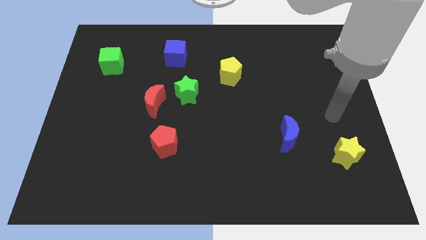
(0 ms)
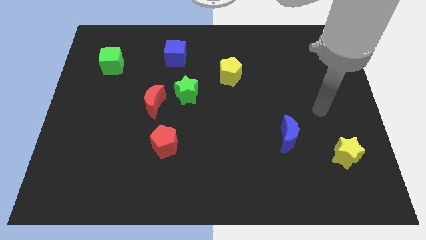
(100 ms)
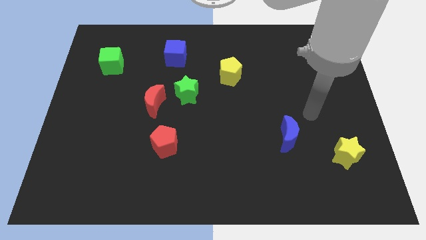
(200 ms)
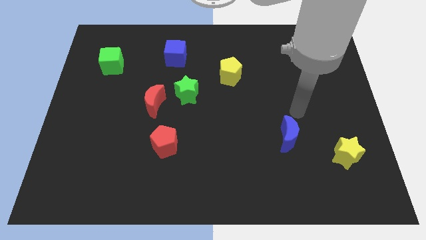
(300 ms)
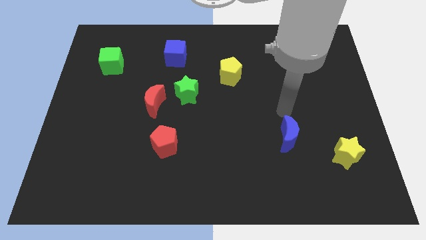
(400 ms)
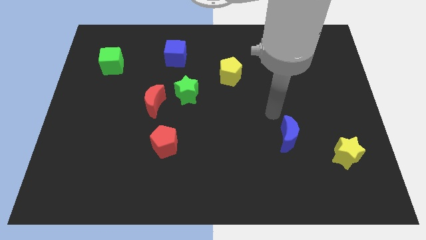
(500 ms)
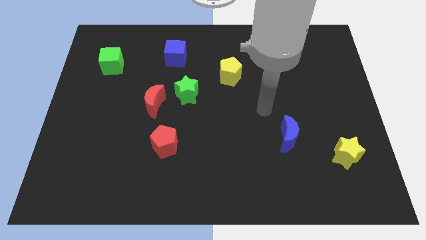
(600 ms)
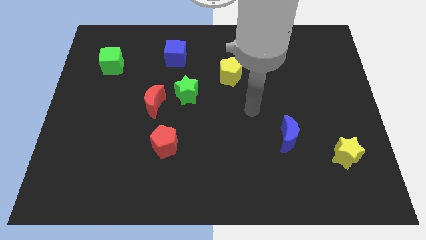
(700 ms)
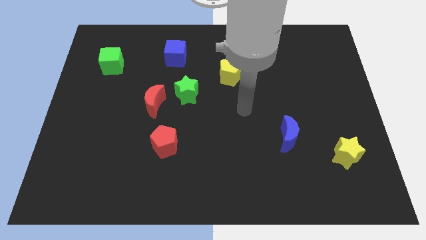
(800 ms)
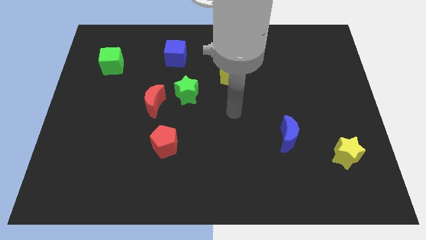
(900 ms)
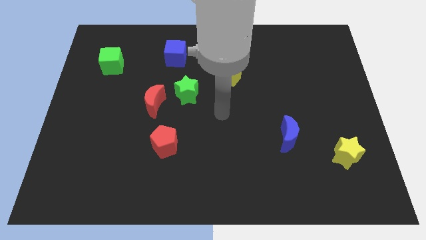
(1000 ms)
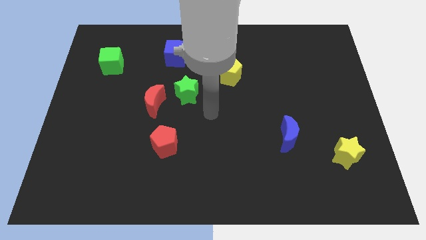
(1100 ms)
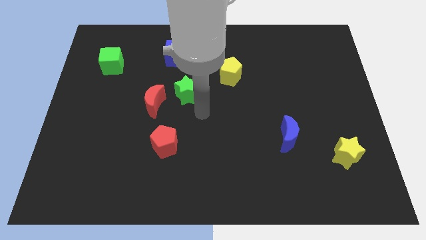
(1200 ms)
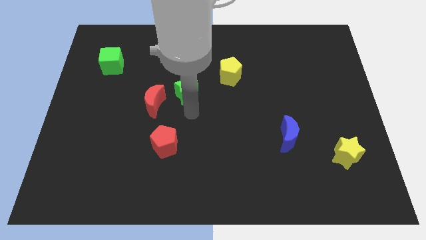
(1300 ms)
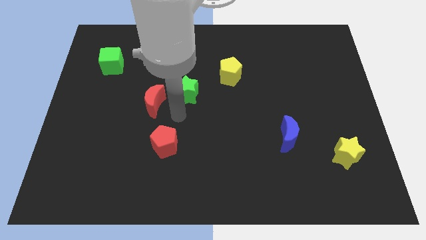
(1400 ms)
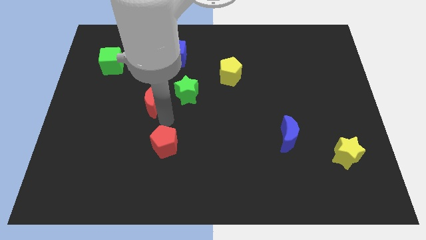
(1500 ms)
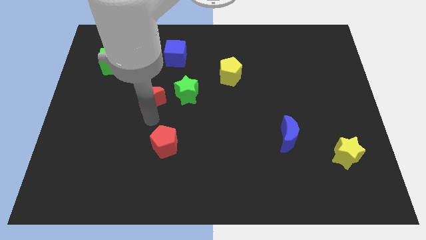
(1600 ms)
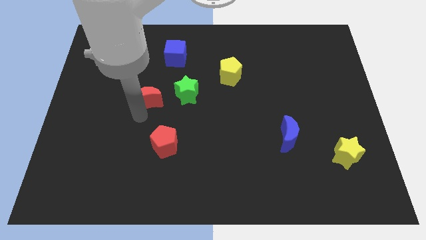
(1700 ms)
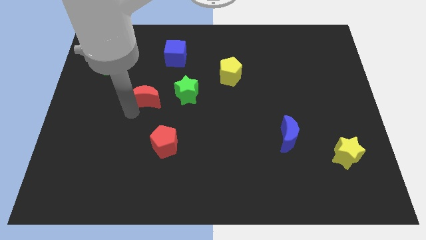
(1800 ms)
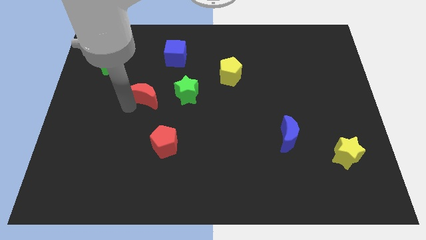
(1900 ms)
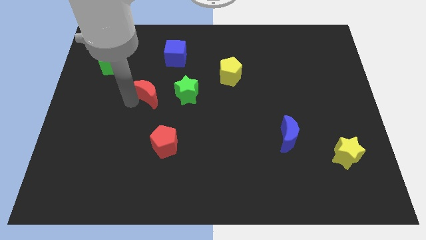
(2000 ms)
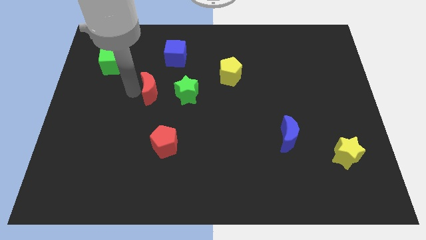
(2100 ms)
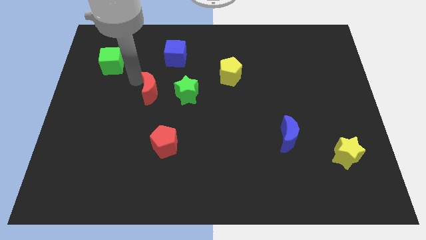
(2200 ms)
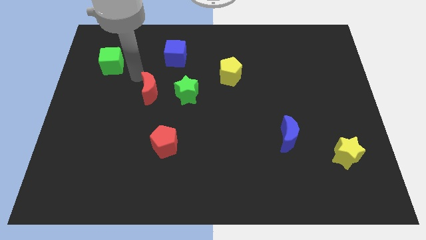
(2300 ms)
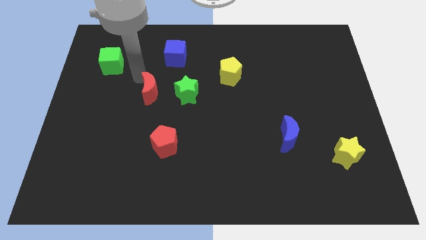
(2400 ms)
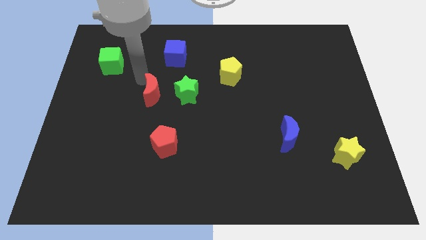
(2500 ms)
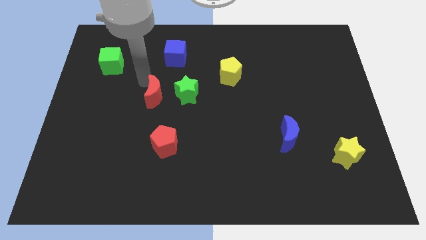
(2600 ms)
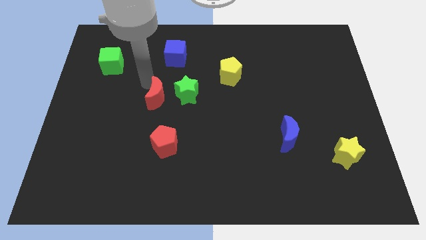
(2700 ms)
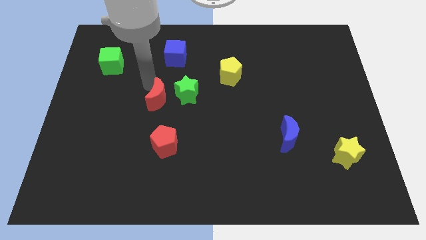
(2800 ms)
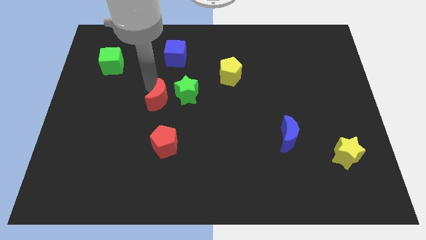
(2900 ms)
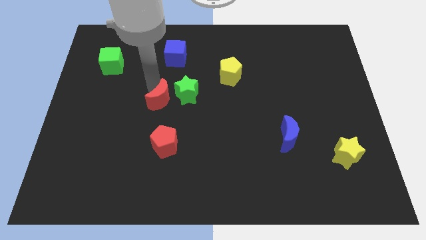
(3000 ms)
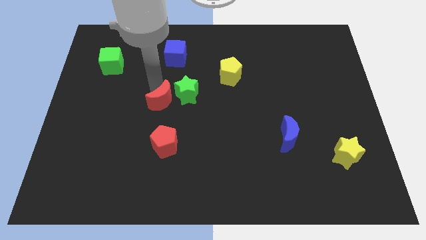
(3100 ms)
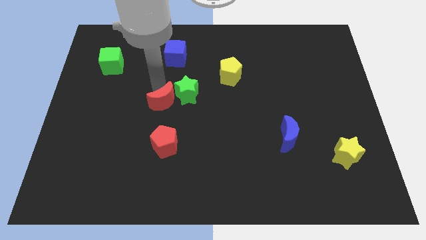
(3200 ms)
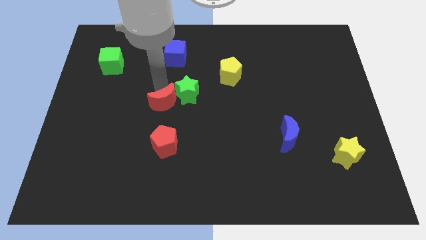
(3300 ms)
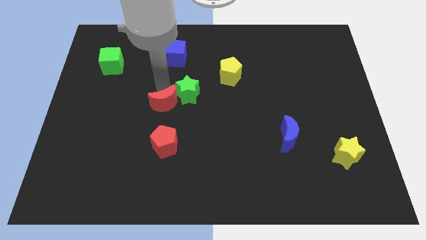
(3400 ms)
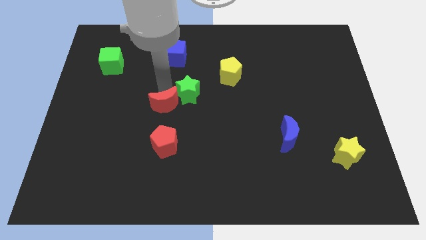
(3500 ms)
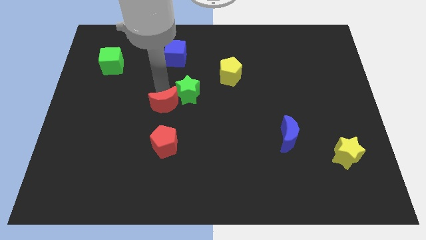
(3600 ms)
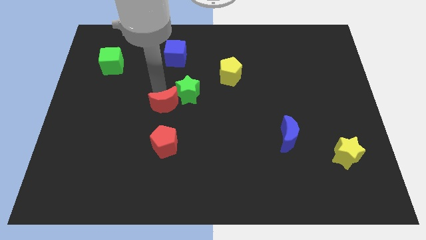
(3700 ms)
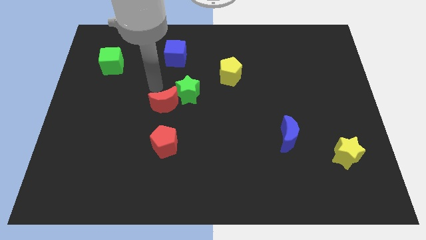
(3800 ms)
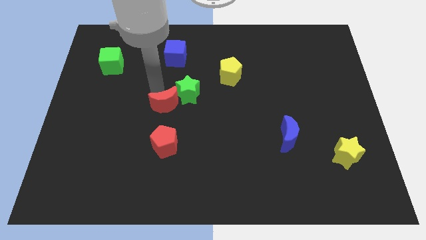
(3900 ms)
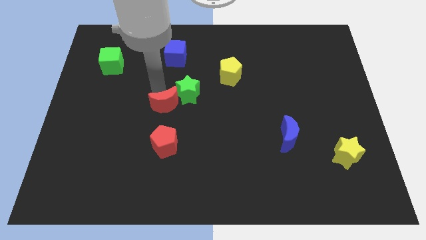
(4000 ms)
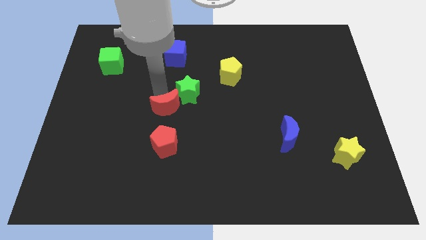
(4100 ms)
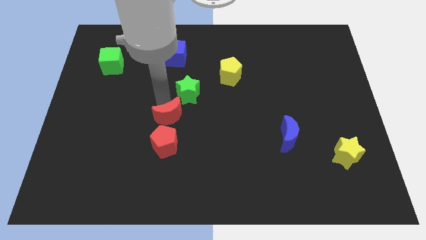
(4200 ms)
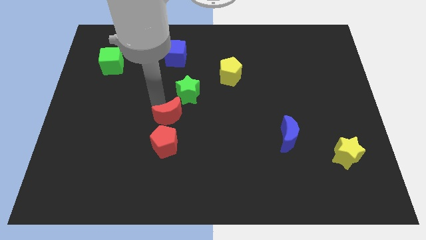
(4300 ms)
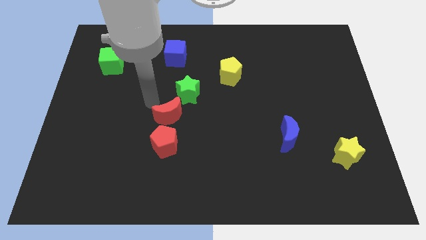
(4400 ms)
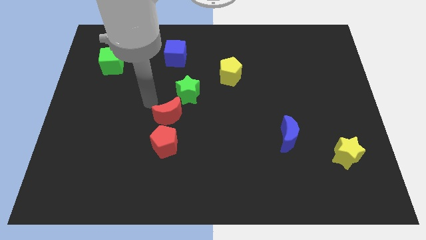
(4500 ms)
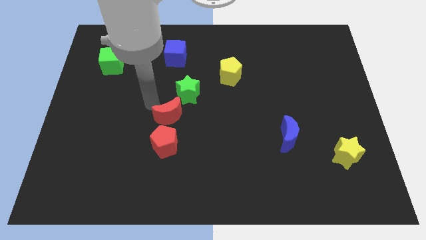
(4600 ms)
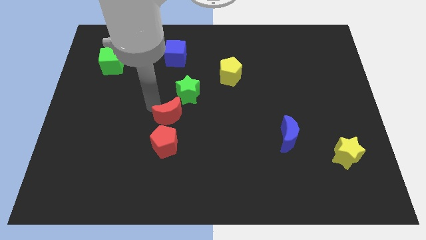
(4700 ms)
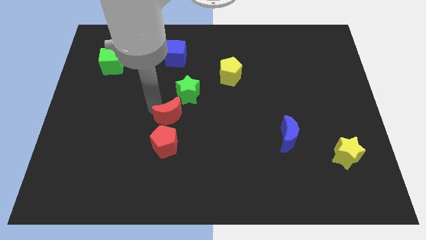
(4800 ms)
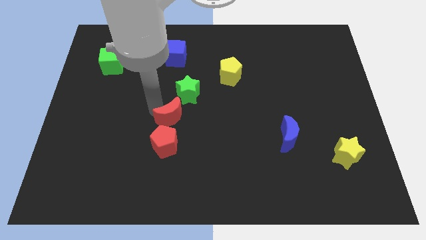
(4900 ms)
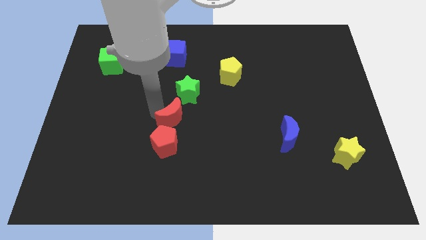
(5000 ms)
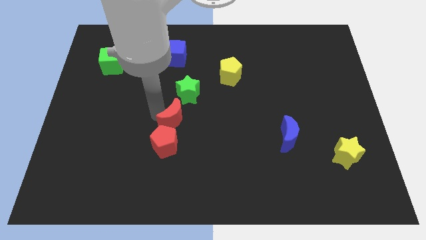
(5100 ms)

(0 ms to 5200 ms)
slightly move the red moon down and right

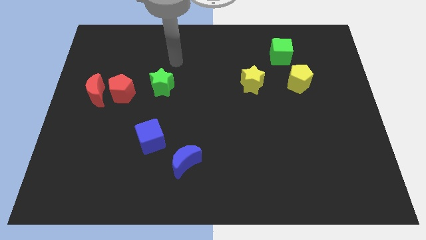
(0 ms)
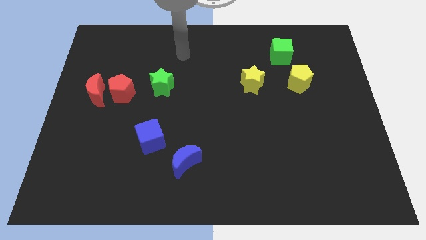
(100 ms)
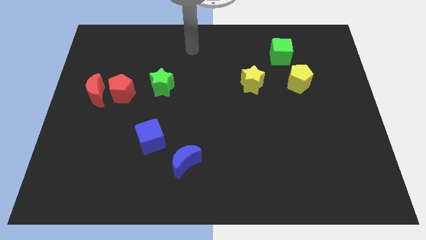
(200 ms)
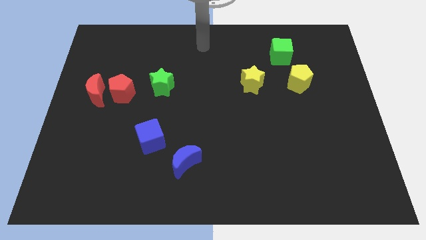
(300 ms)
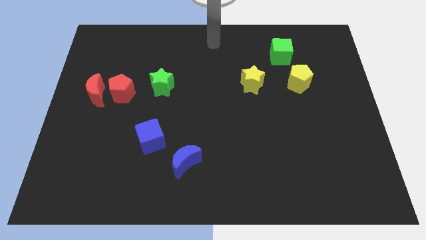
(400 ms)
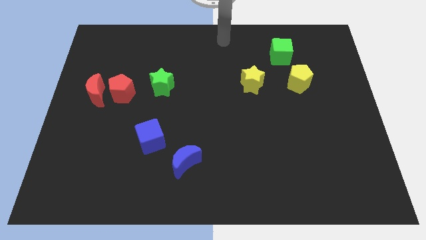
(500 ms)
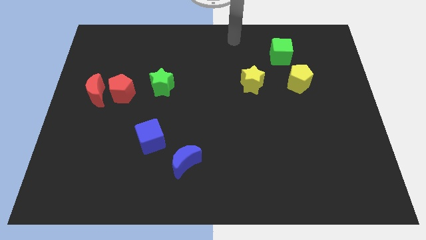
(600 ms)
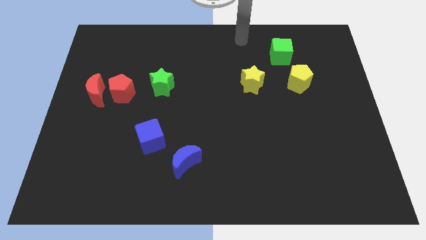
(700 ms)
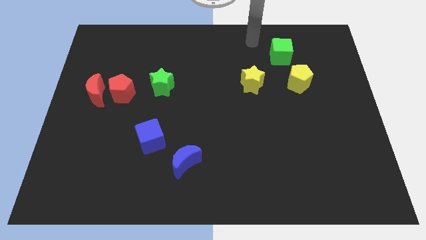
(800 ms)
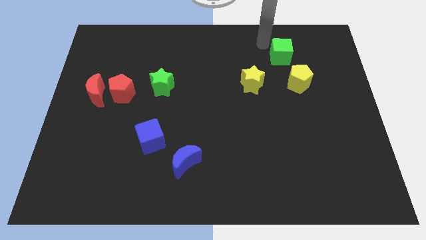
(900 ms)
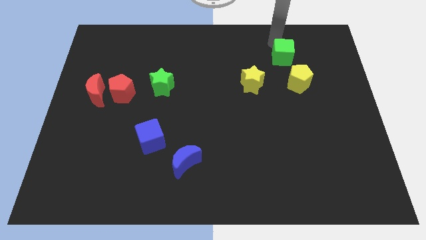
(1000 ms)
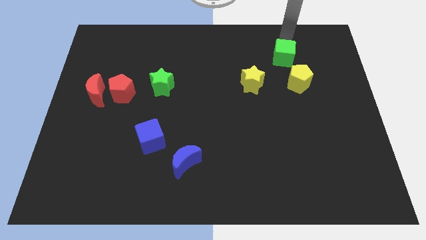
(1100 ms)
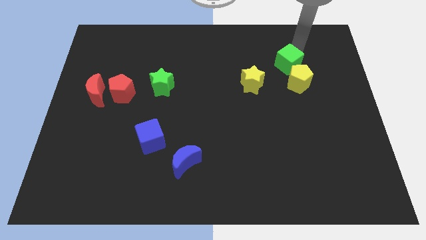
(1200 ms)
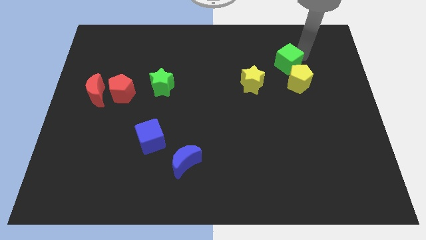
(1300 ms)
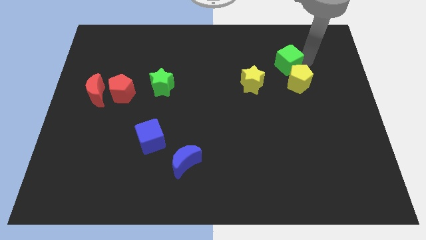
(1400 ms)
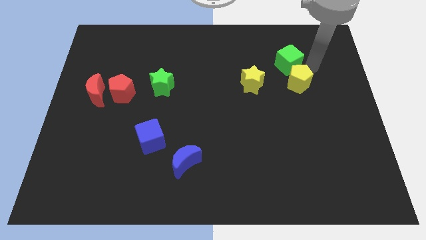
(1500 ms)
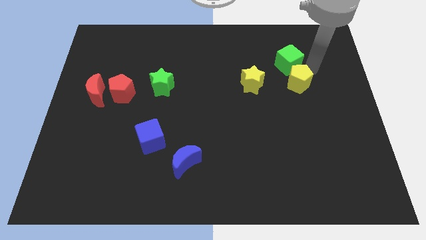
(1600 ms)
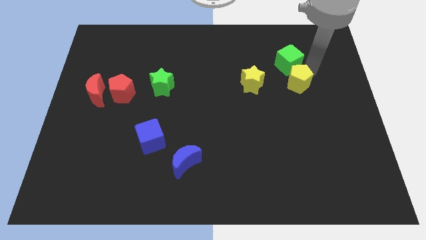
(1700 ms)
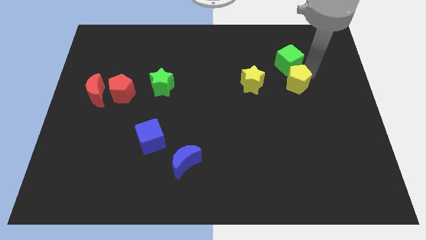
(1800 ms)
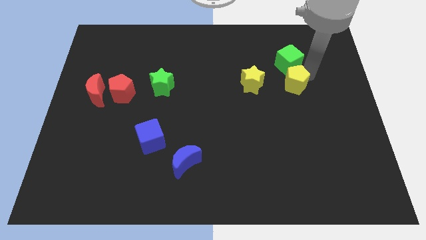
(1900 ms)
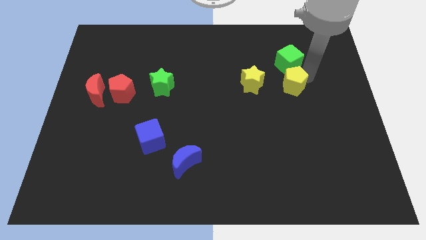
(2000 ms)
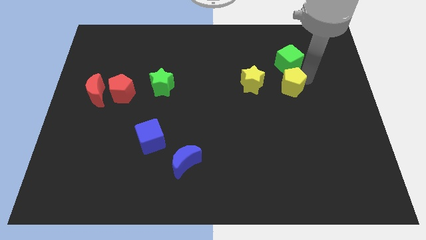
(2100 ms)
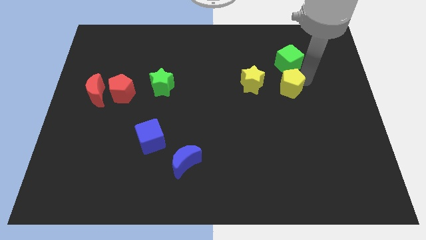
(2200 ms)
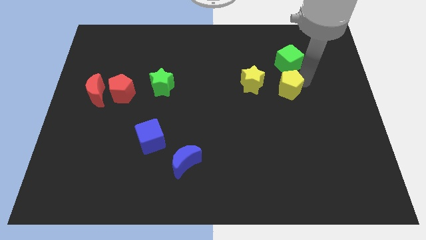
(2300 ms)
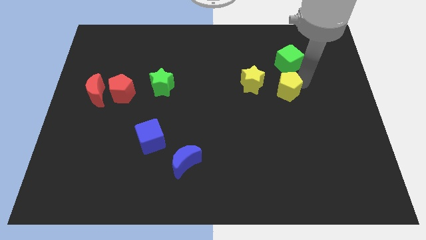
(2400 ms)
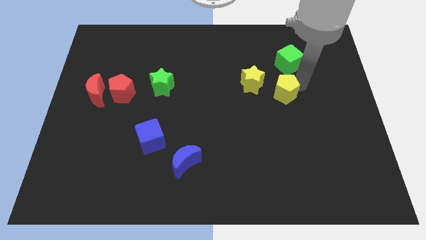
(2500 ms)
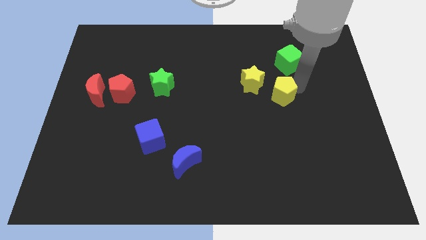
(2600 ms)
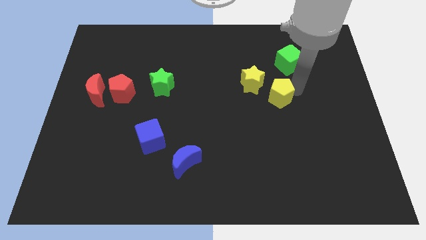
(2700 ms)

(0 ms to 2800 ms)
push the yellow pentagon down and to the left slightly

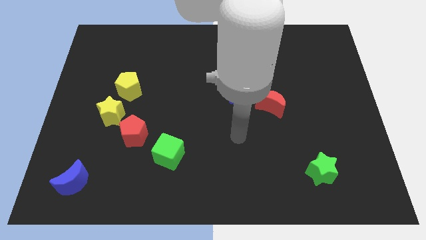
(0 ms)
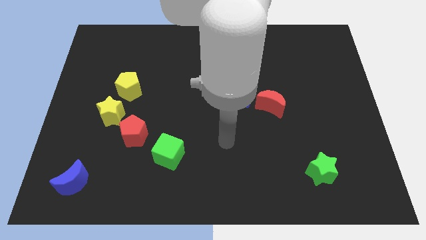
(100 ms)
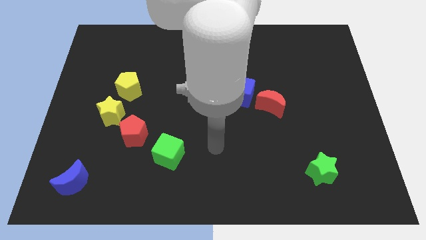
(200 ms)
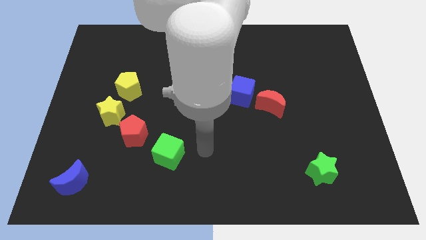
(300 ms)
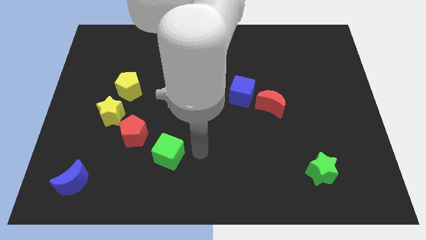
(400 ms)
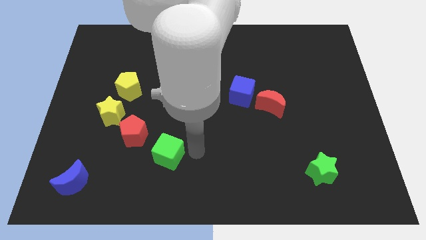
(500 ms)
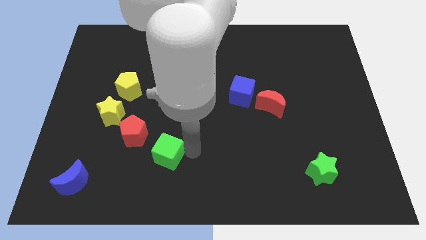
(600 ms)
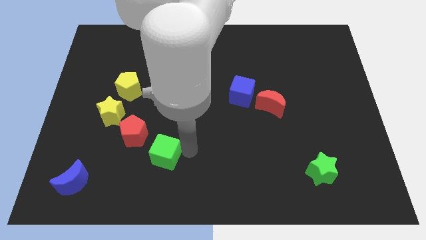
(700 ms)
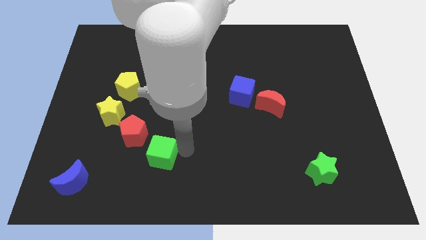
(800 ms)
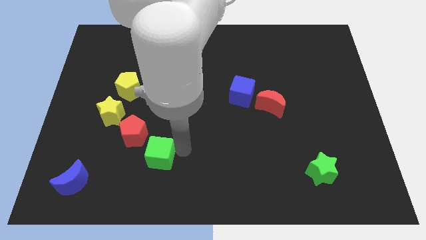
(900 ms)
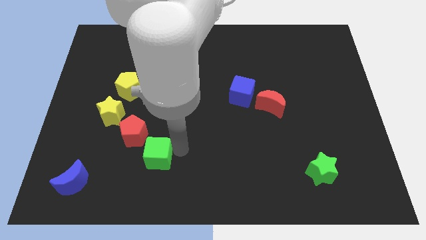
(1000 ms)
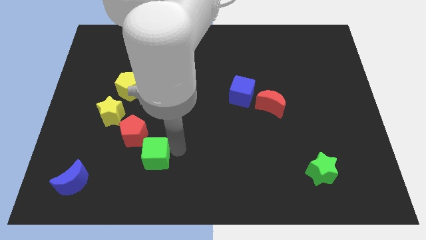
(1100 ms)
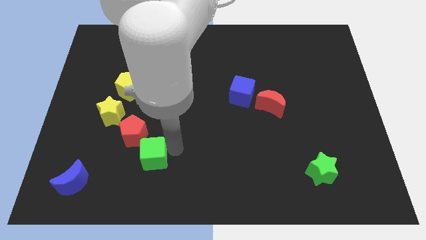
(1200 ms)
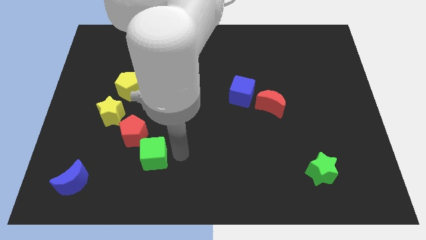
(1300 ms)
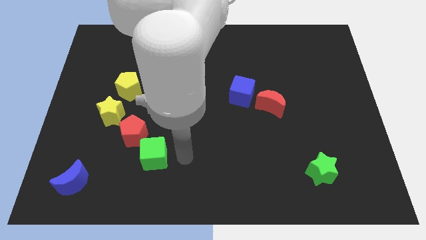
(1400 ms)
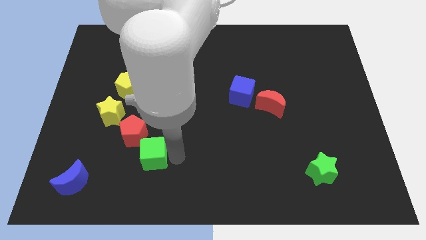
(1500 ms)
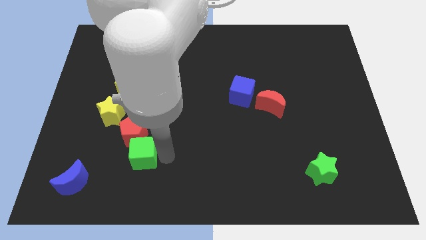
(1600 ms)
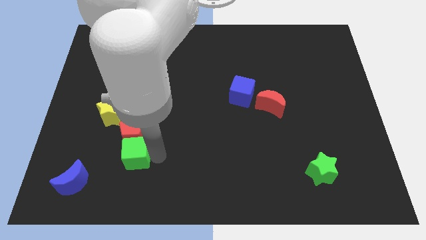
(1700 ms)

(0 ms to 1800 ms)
push the green cube slightly left
